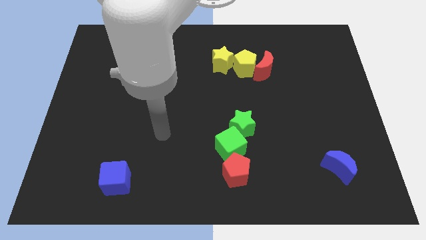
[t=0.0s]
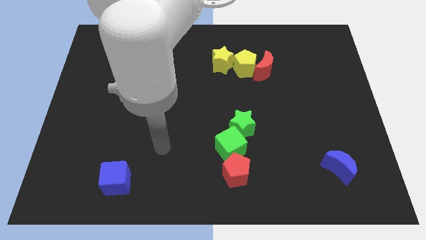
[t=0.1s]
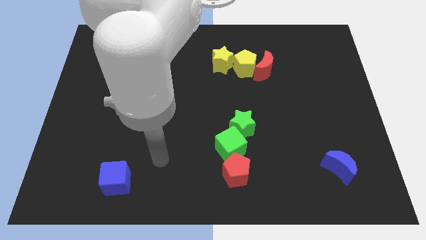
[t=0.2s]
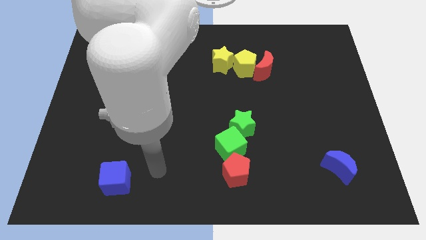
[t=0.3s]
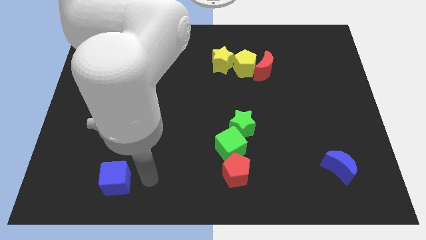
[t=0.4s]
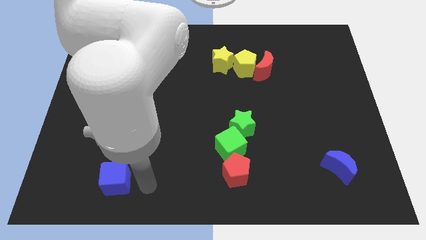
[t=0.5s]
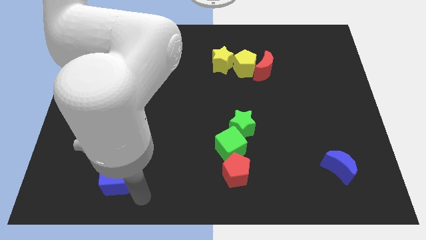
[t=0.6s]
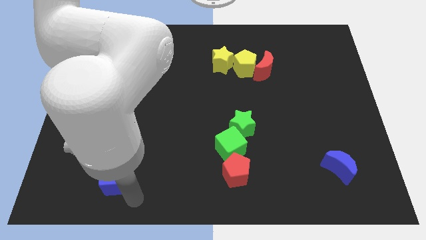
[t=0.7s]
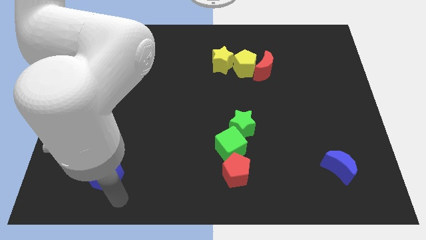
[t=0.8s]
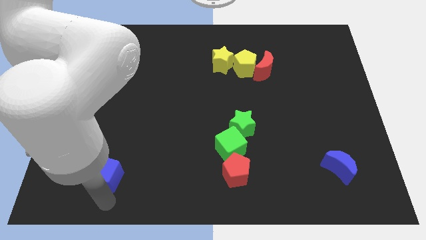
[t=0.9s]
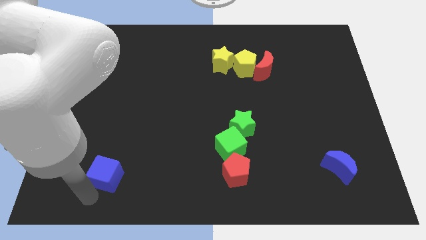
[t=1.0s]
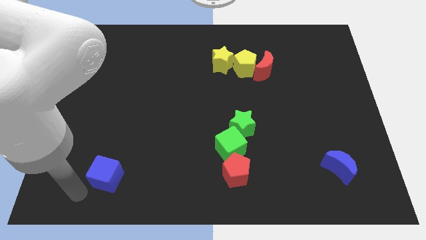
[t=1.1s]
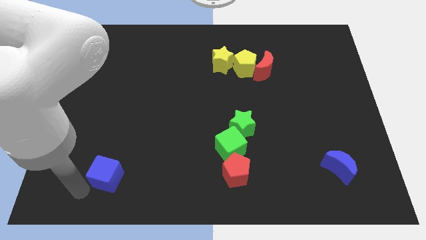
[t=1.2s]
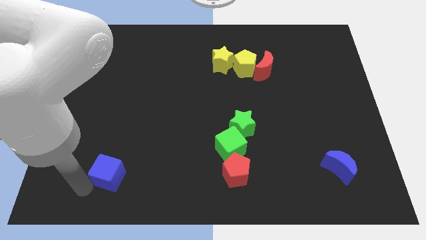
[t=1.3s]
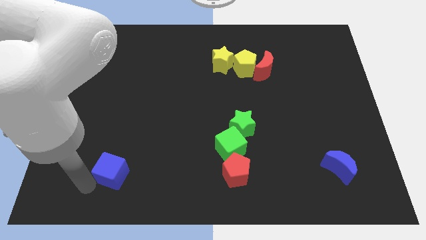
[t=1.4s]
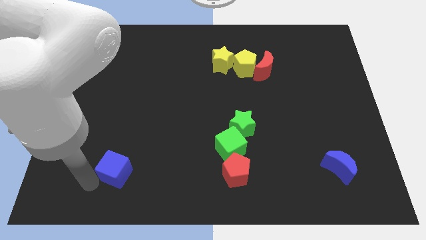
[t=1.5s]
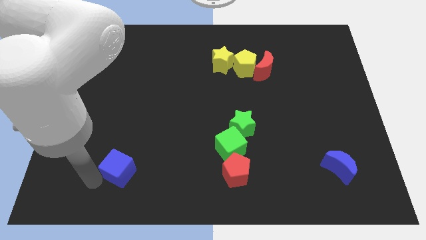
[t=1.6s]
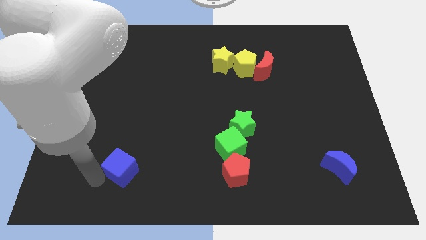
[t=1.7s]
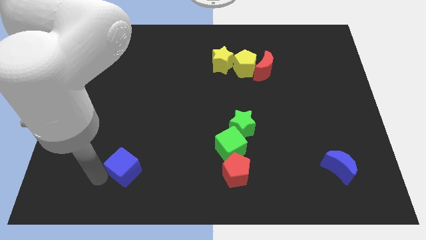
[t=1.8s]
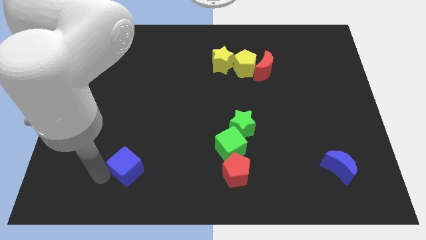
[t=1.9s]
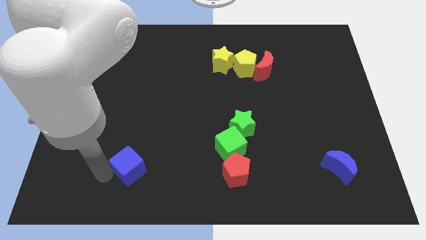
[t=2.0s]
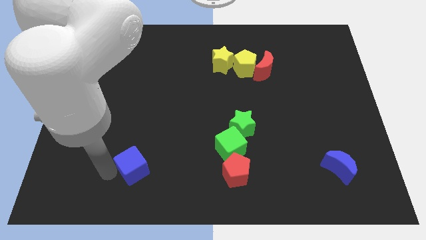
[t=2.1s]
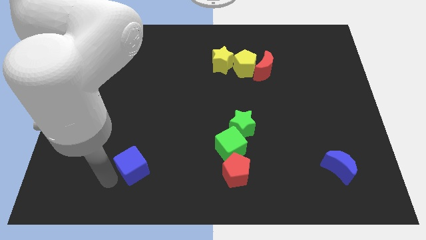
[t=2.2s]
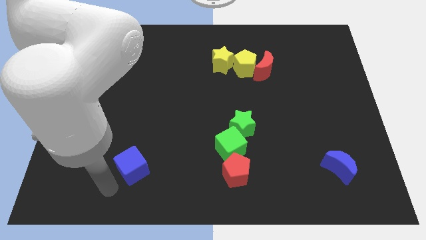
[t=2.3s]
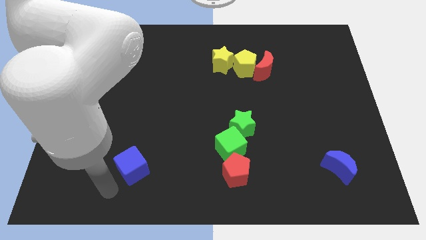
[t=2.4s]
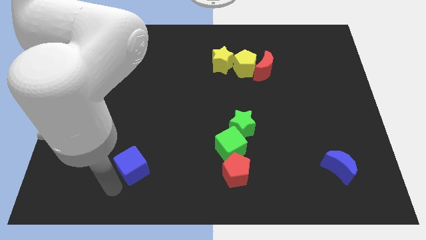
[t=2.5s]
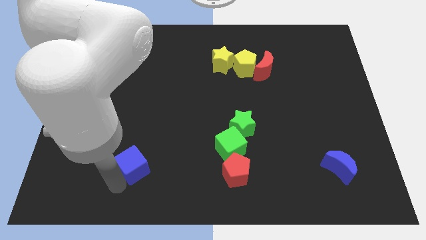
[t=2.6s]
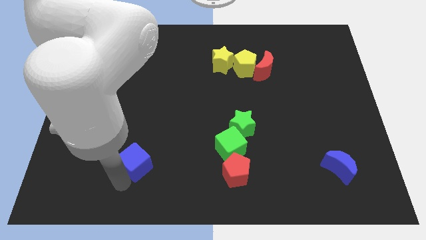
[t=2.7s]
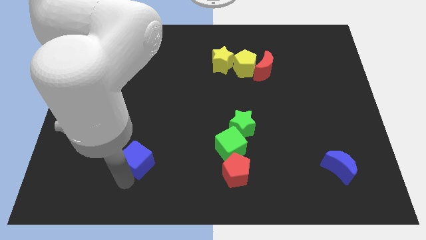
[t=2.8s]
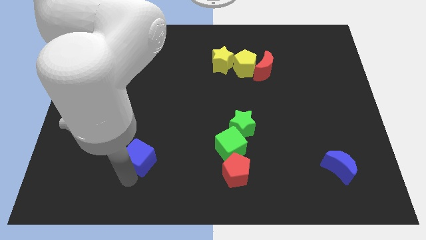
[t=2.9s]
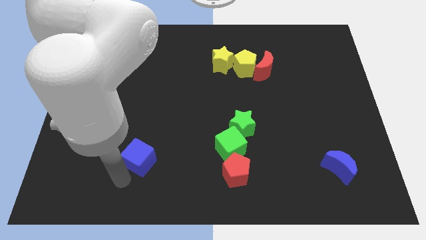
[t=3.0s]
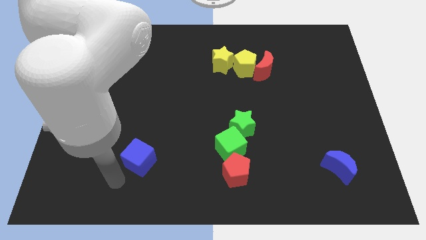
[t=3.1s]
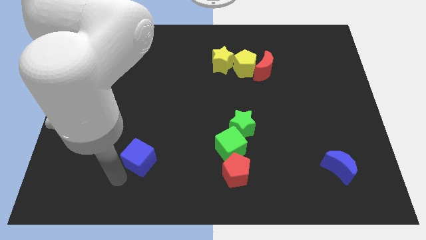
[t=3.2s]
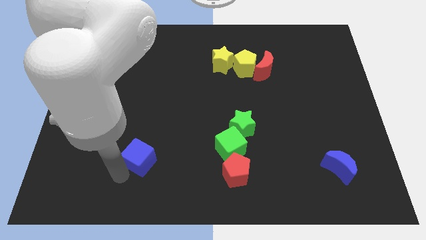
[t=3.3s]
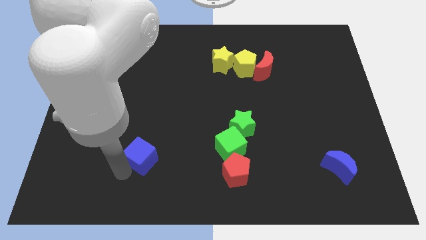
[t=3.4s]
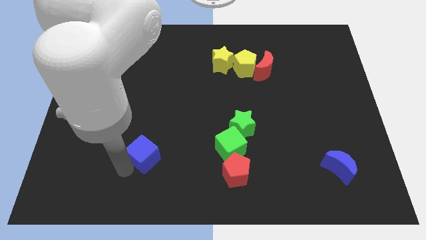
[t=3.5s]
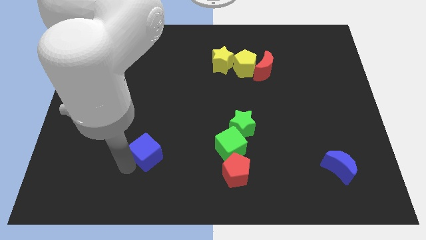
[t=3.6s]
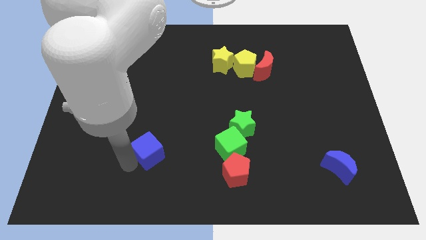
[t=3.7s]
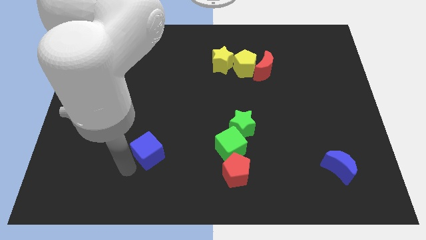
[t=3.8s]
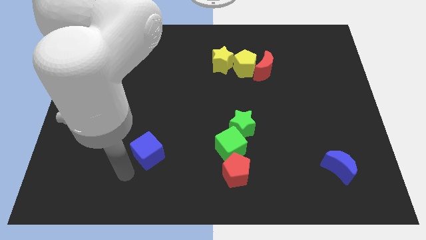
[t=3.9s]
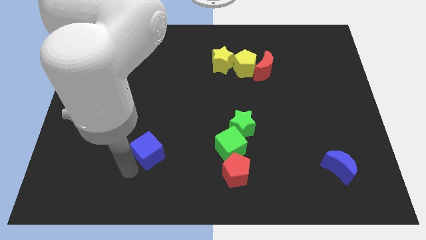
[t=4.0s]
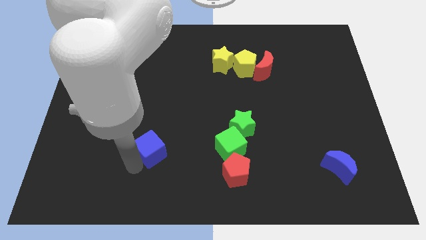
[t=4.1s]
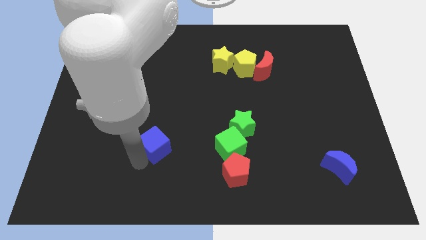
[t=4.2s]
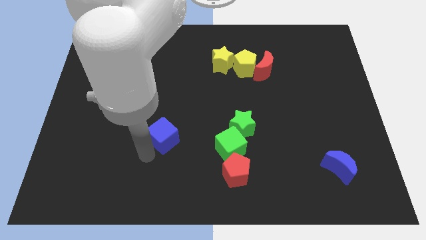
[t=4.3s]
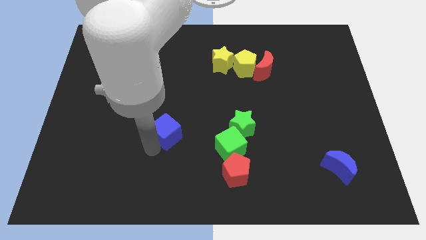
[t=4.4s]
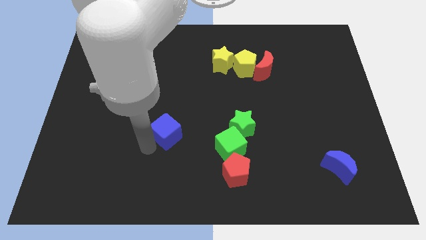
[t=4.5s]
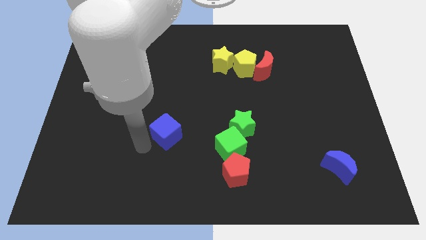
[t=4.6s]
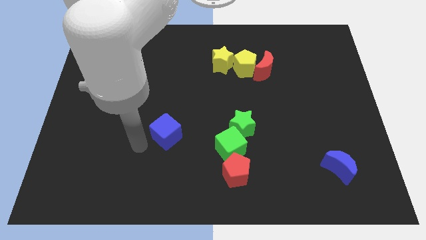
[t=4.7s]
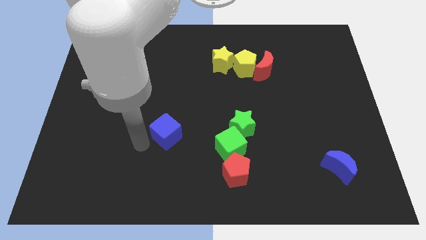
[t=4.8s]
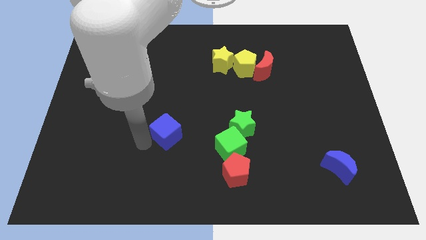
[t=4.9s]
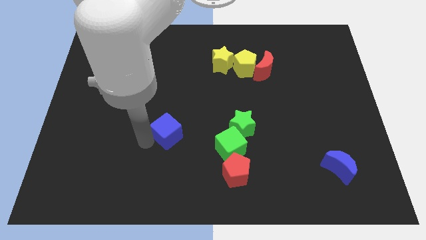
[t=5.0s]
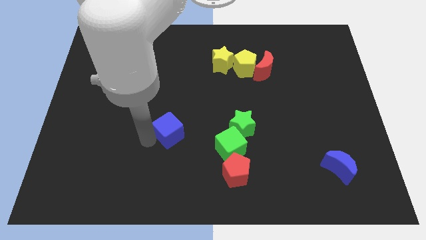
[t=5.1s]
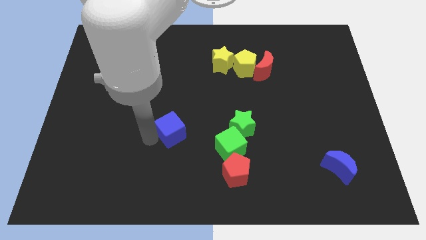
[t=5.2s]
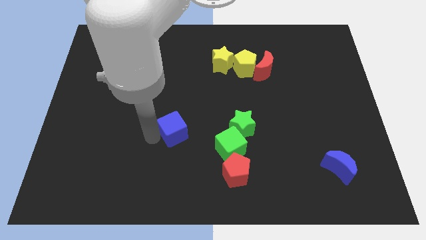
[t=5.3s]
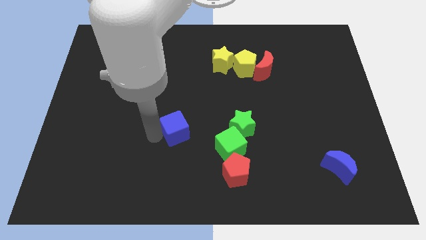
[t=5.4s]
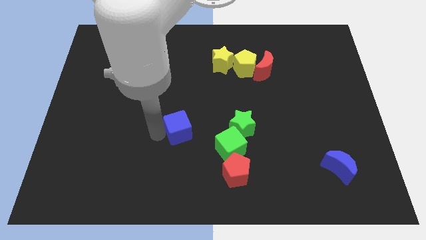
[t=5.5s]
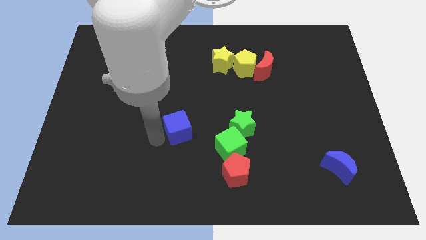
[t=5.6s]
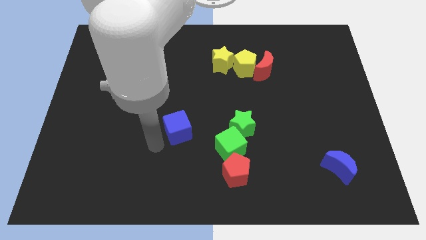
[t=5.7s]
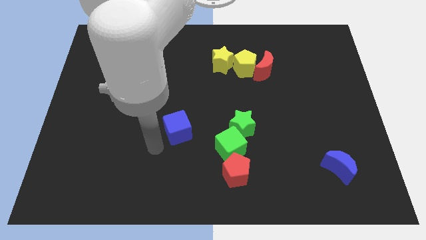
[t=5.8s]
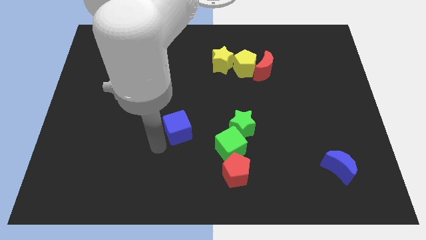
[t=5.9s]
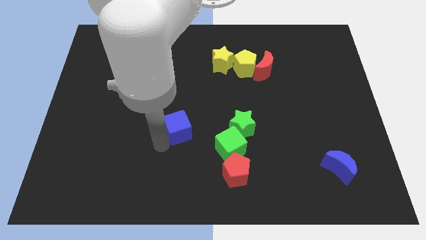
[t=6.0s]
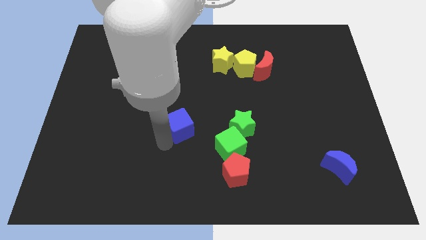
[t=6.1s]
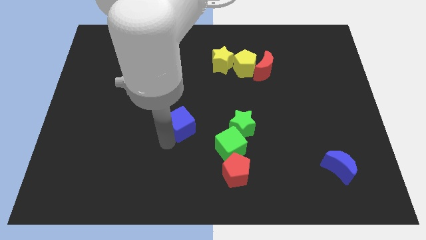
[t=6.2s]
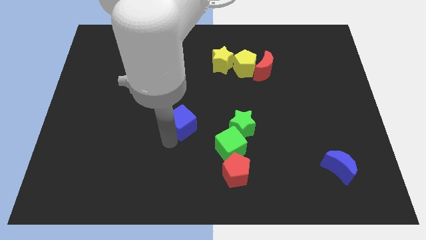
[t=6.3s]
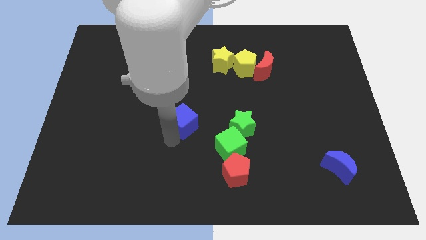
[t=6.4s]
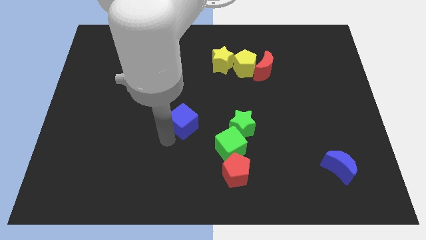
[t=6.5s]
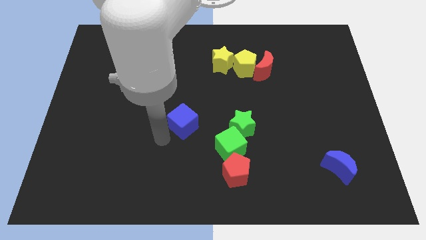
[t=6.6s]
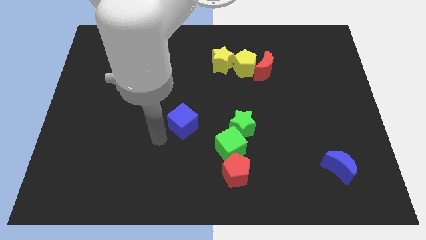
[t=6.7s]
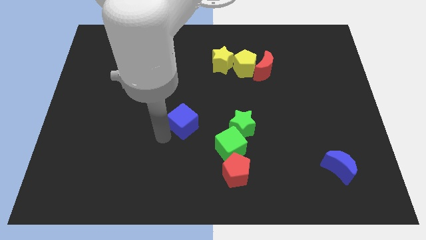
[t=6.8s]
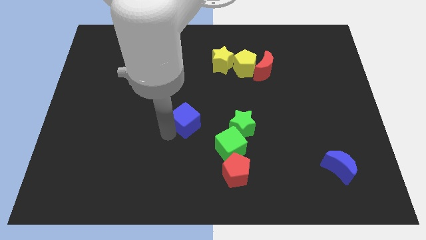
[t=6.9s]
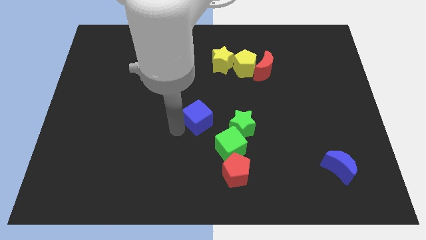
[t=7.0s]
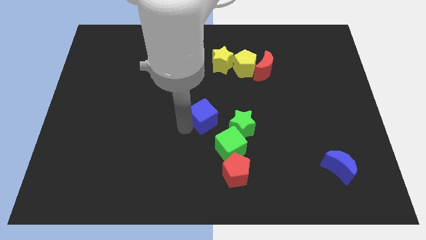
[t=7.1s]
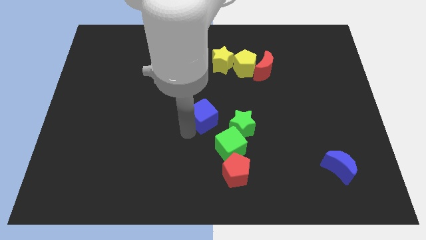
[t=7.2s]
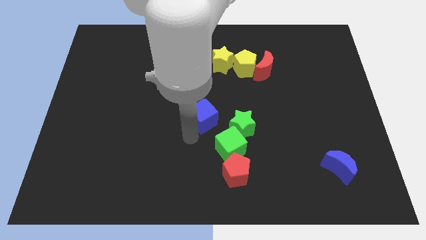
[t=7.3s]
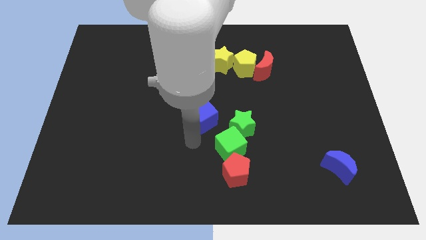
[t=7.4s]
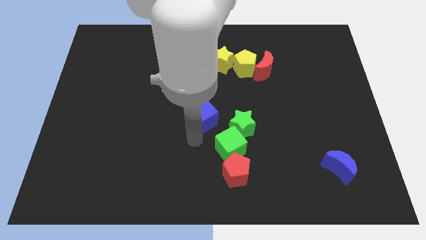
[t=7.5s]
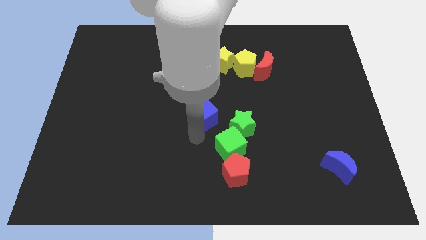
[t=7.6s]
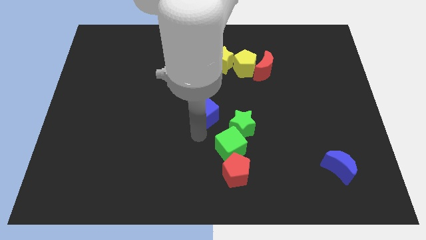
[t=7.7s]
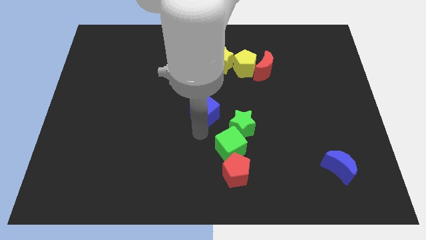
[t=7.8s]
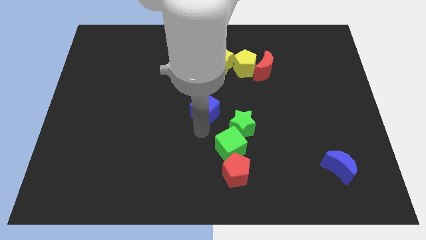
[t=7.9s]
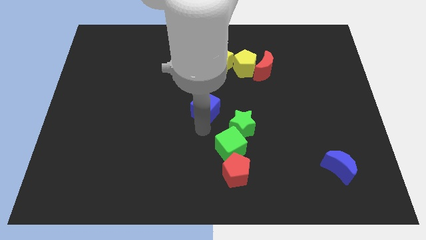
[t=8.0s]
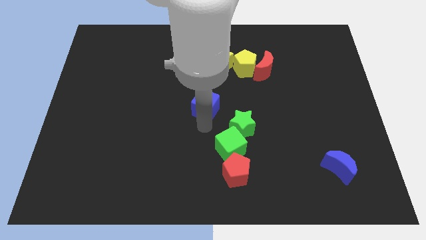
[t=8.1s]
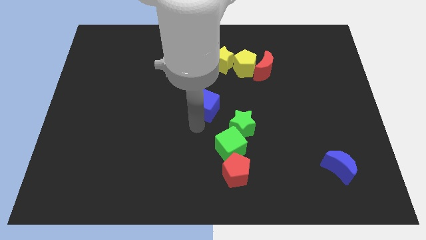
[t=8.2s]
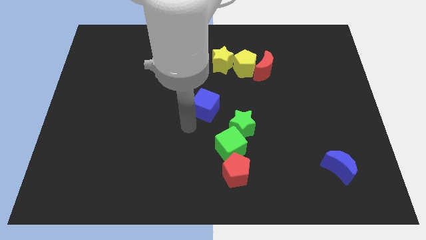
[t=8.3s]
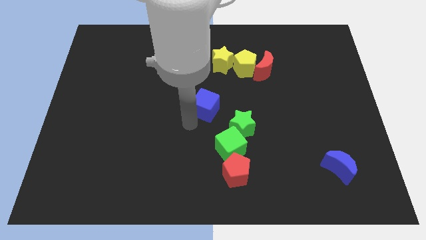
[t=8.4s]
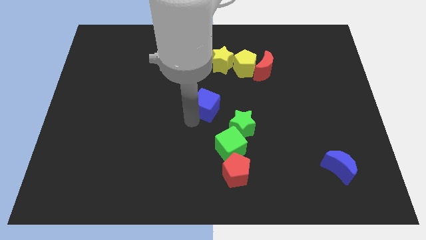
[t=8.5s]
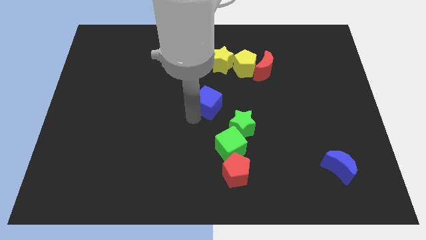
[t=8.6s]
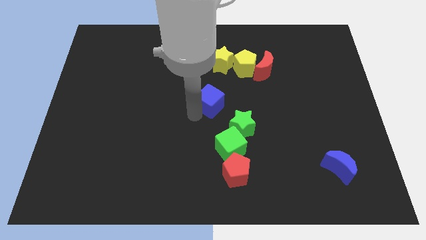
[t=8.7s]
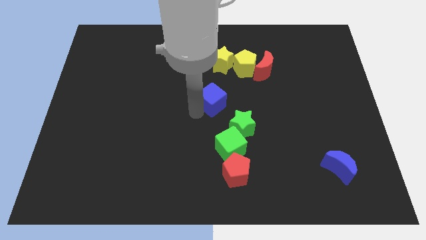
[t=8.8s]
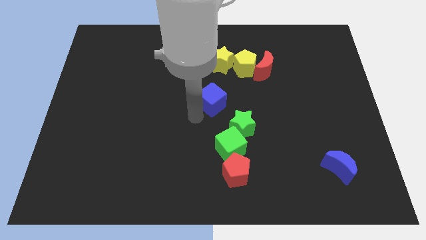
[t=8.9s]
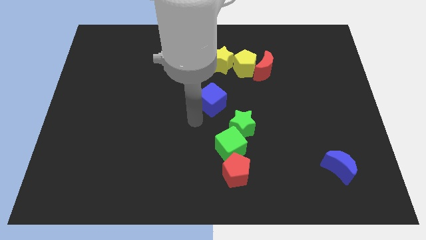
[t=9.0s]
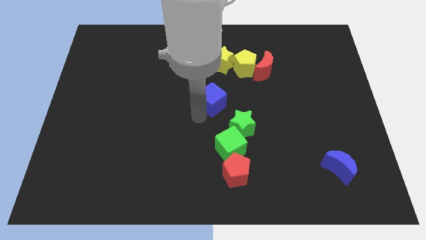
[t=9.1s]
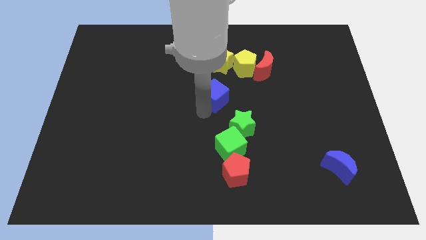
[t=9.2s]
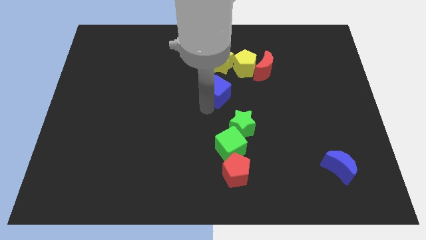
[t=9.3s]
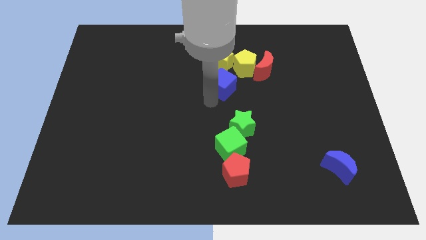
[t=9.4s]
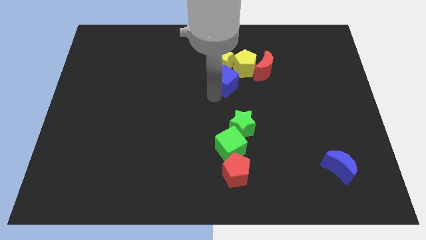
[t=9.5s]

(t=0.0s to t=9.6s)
move the blue cube to the bottom right of the yellow star
